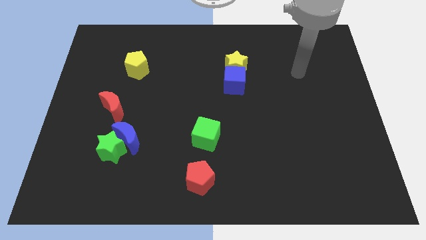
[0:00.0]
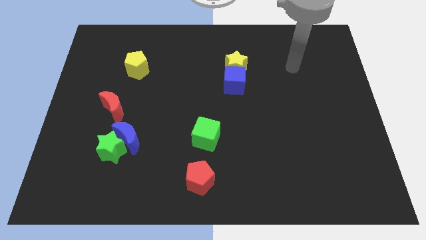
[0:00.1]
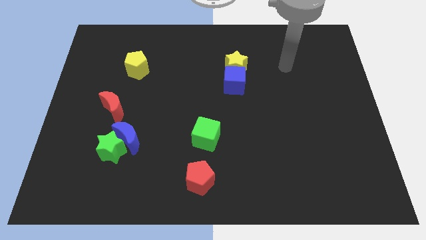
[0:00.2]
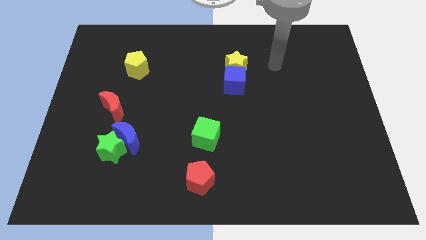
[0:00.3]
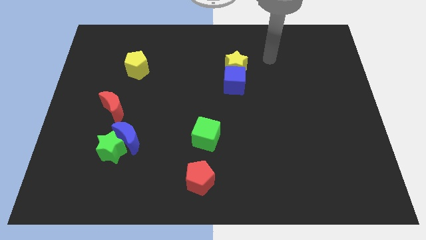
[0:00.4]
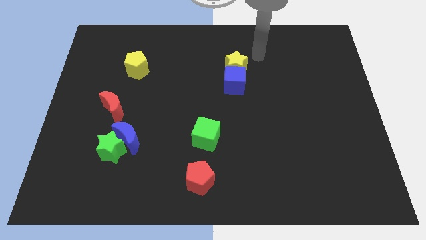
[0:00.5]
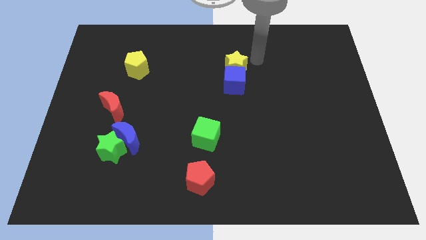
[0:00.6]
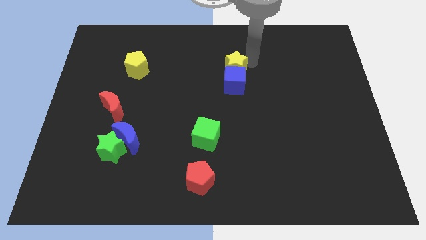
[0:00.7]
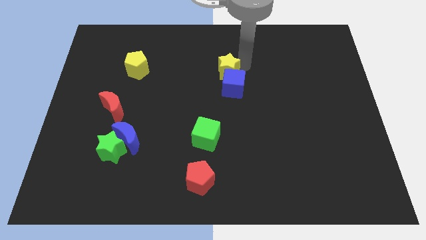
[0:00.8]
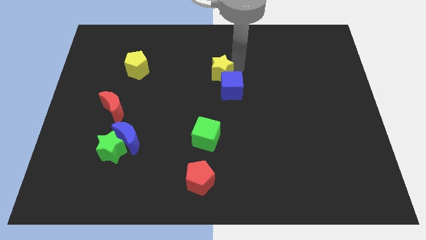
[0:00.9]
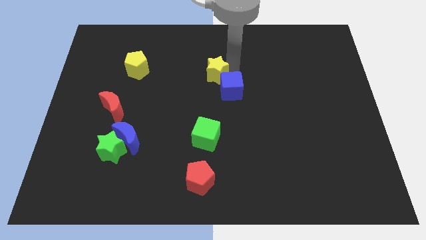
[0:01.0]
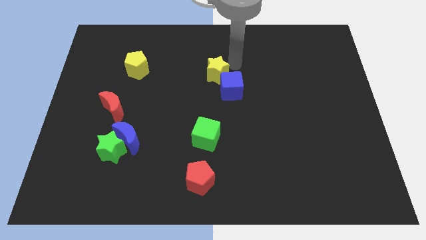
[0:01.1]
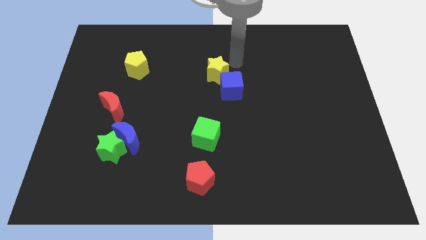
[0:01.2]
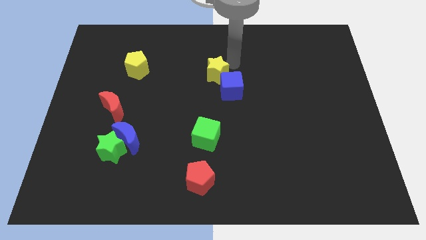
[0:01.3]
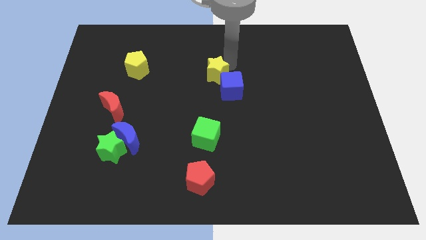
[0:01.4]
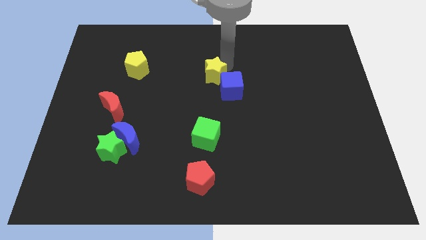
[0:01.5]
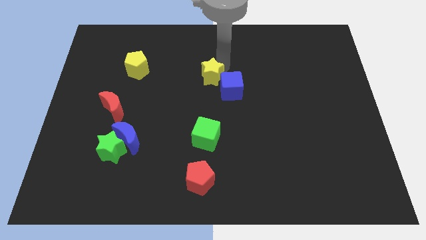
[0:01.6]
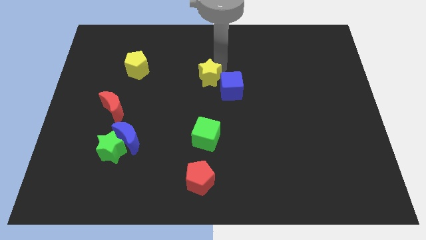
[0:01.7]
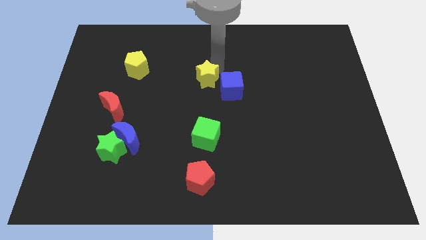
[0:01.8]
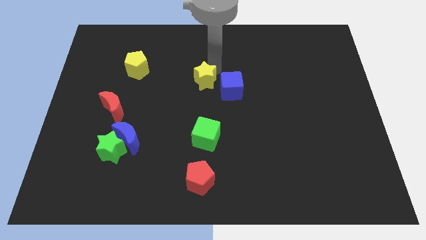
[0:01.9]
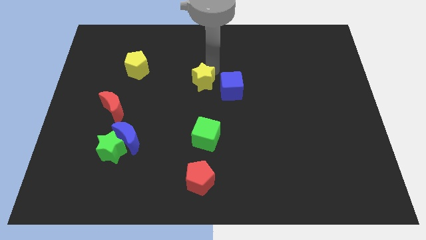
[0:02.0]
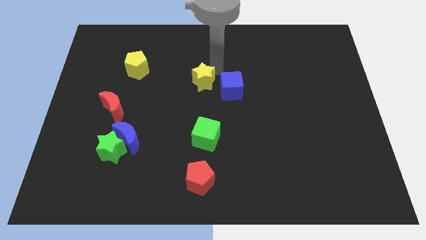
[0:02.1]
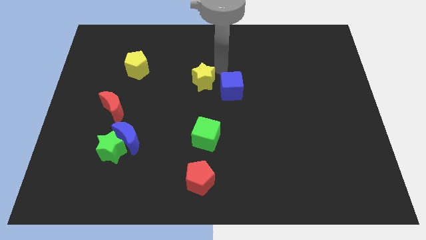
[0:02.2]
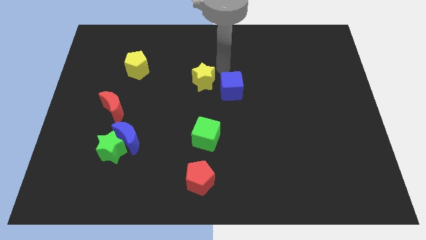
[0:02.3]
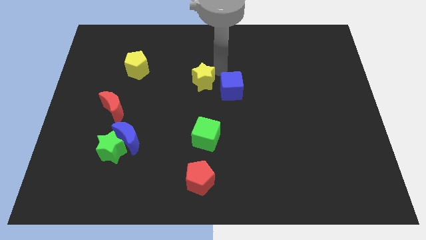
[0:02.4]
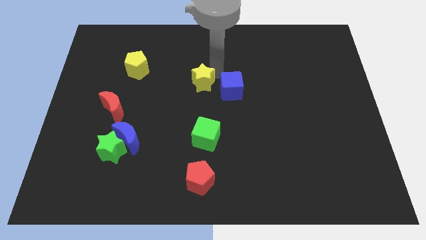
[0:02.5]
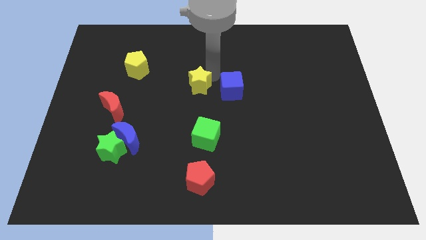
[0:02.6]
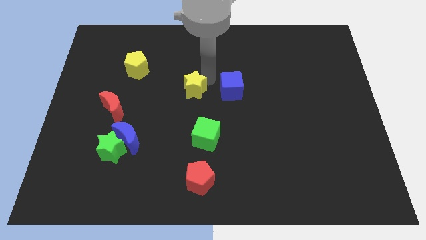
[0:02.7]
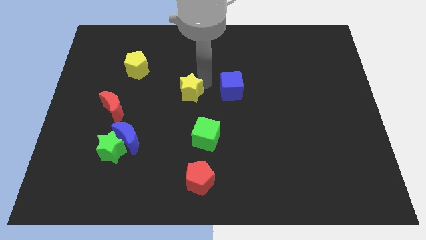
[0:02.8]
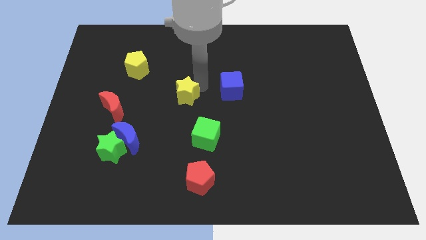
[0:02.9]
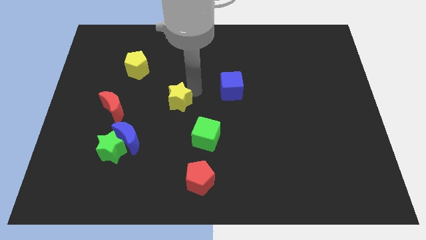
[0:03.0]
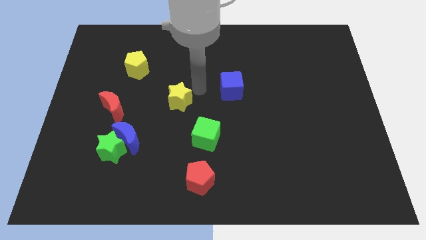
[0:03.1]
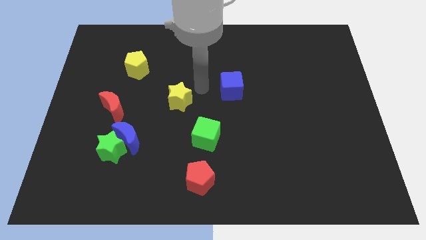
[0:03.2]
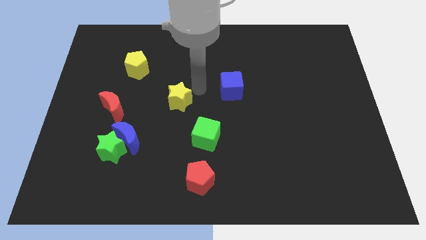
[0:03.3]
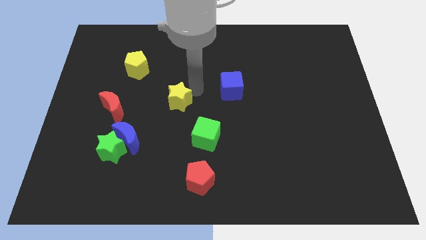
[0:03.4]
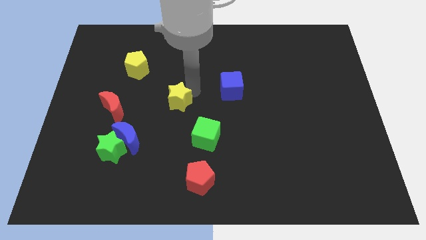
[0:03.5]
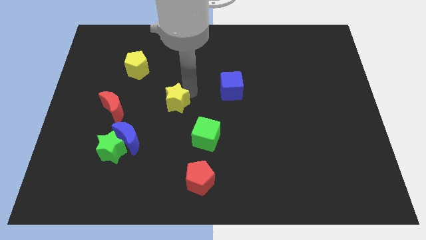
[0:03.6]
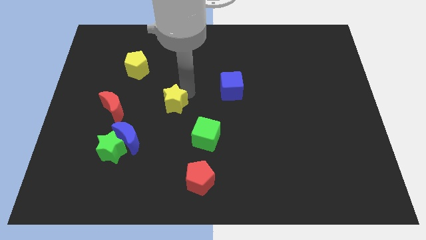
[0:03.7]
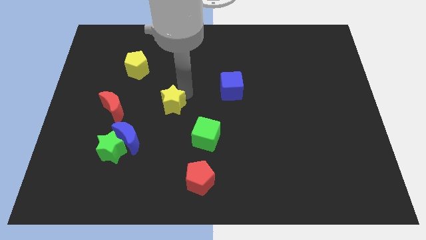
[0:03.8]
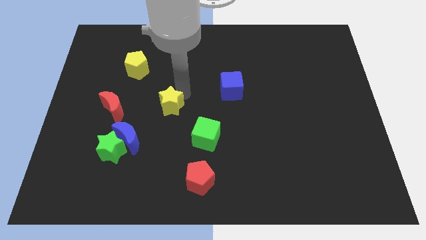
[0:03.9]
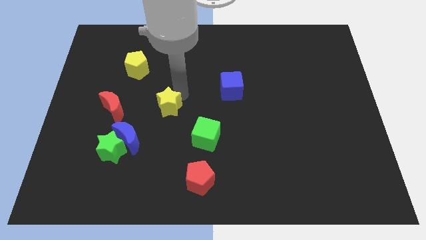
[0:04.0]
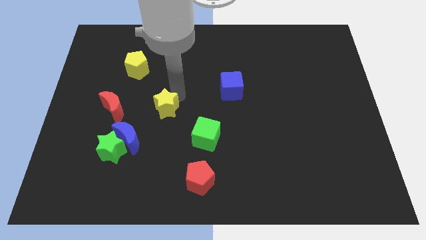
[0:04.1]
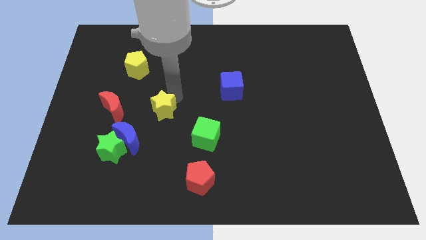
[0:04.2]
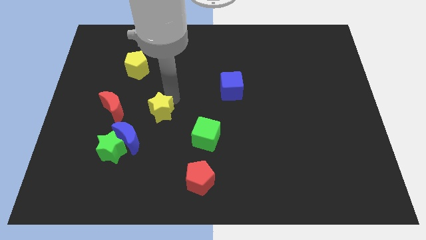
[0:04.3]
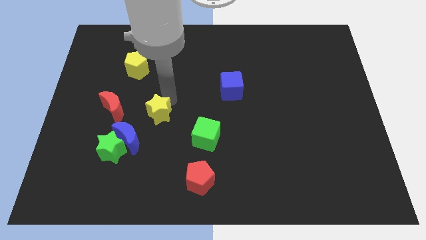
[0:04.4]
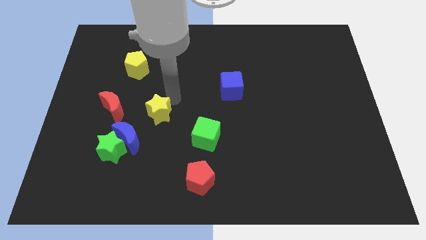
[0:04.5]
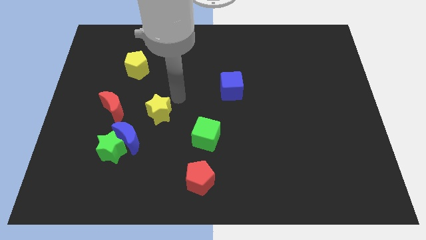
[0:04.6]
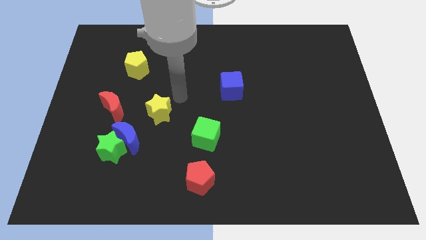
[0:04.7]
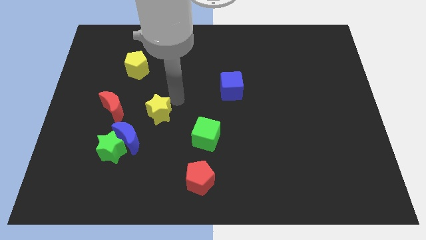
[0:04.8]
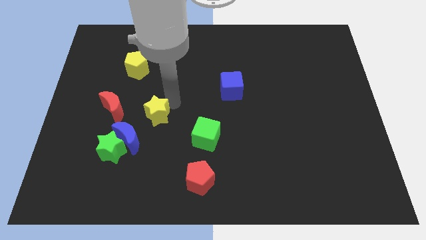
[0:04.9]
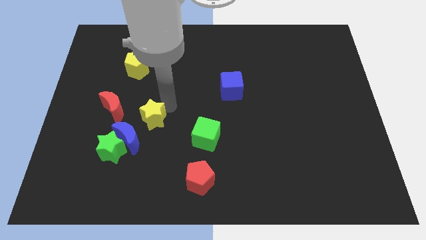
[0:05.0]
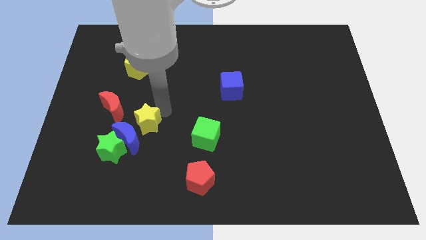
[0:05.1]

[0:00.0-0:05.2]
move the yellow star close to the blue moon

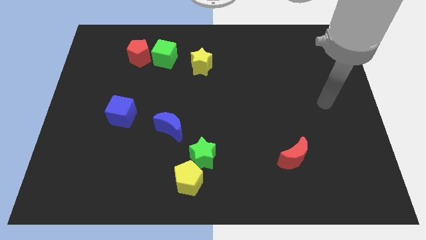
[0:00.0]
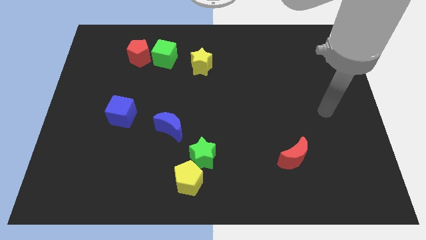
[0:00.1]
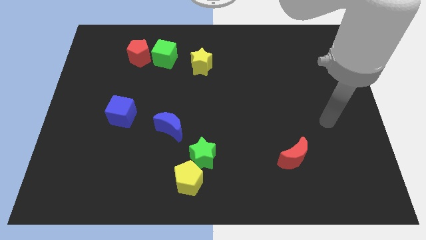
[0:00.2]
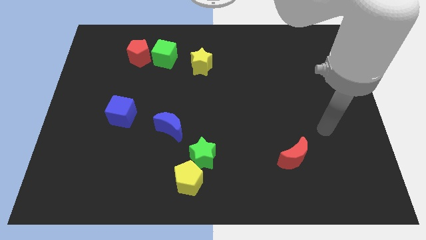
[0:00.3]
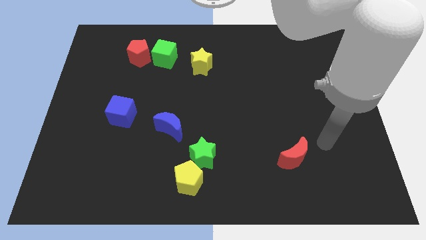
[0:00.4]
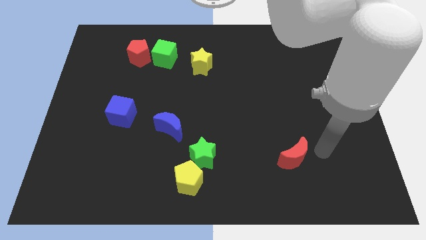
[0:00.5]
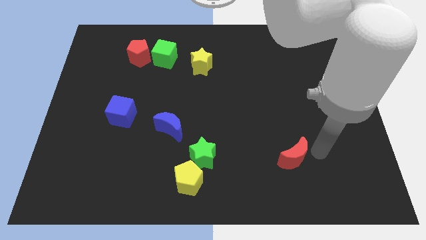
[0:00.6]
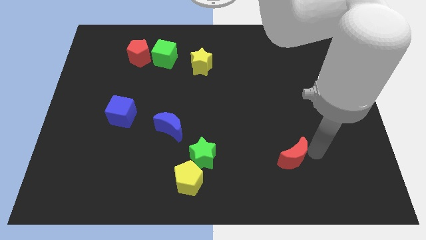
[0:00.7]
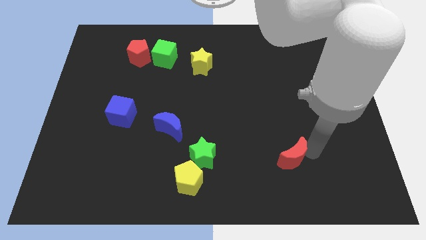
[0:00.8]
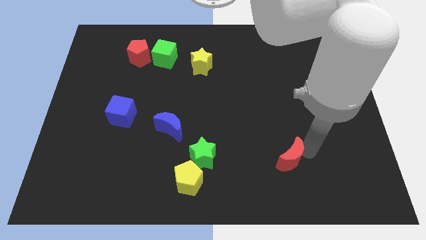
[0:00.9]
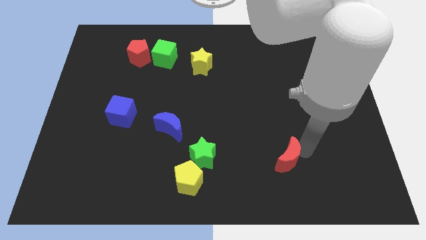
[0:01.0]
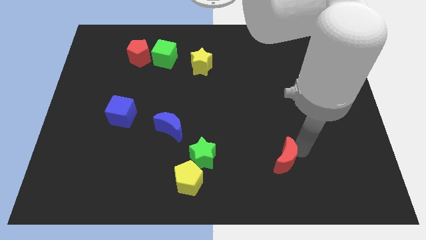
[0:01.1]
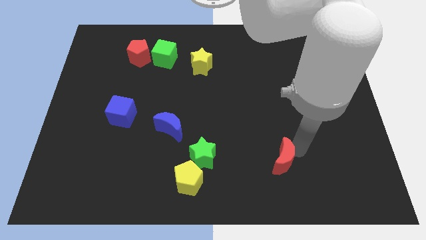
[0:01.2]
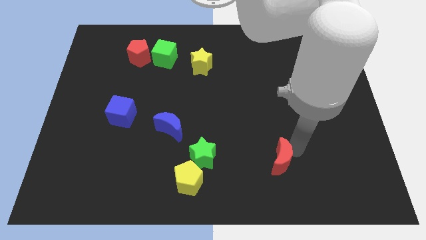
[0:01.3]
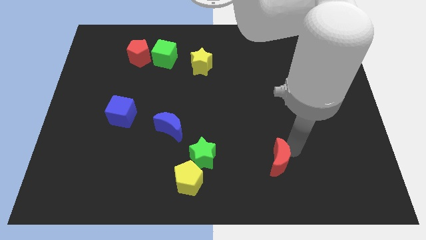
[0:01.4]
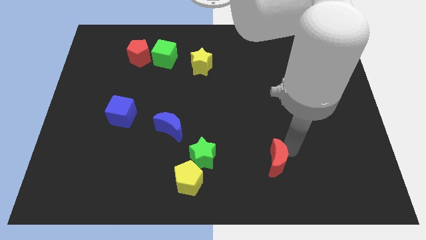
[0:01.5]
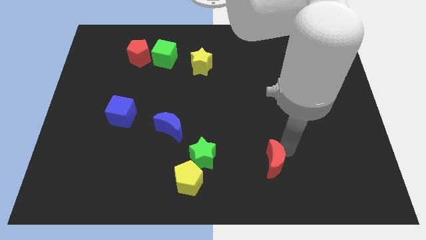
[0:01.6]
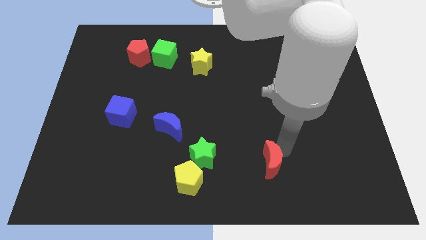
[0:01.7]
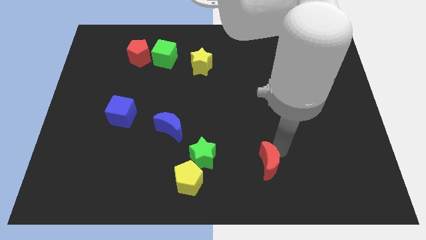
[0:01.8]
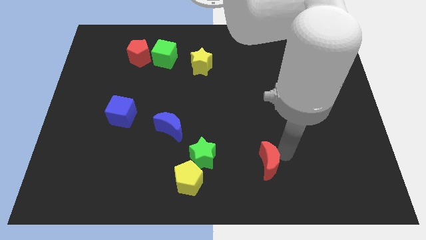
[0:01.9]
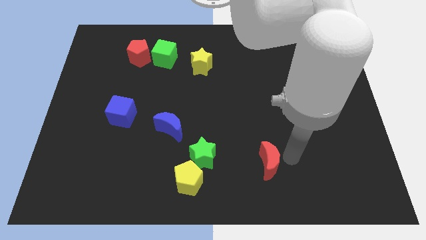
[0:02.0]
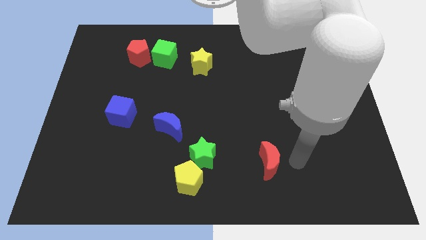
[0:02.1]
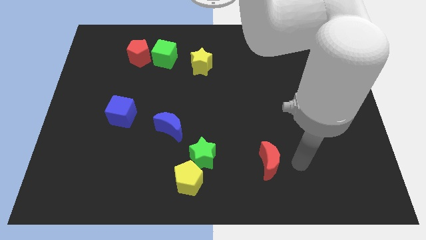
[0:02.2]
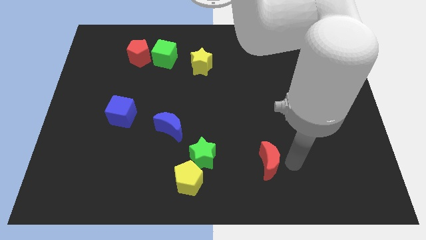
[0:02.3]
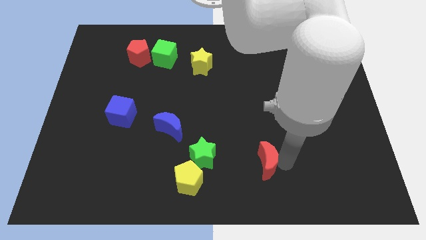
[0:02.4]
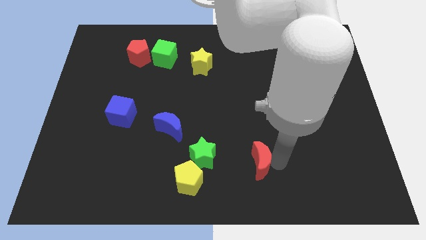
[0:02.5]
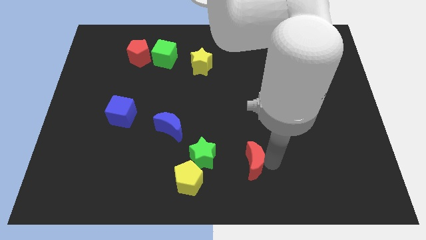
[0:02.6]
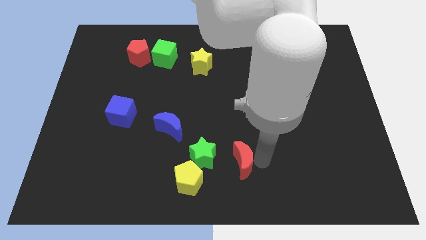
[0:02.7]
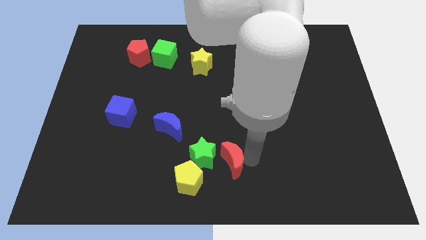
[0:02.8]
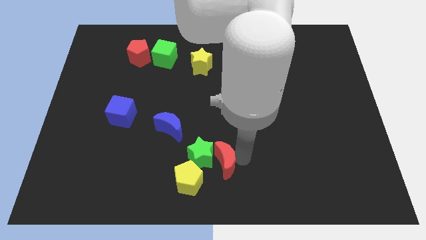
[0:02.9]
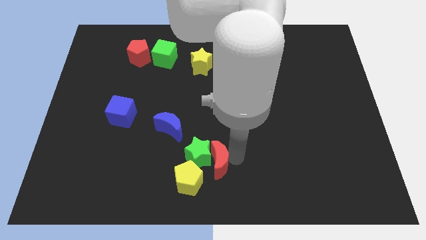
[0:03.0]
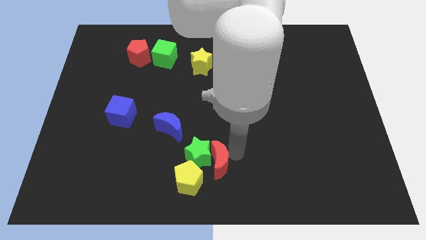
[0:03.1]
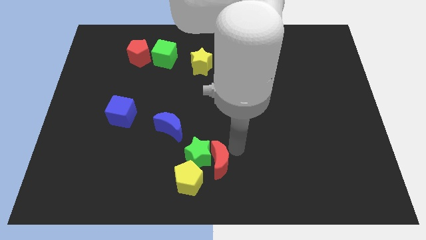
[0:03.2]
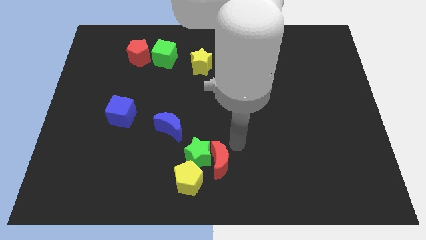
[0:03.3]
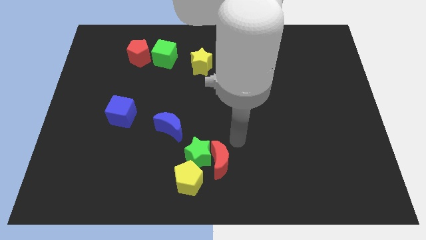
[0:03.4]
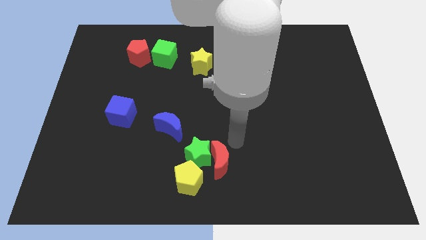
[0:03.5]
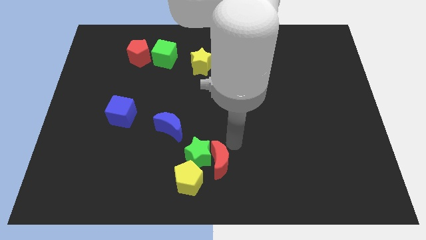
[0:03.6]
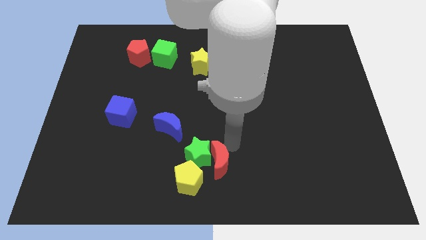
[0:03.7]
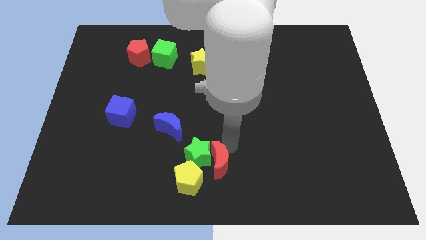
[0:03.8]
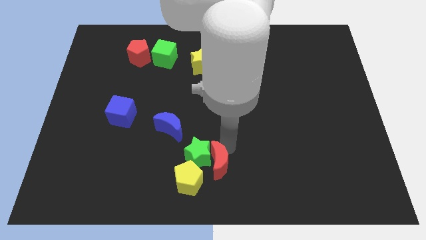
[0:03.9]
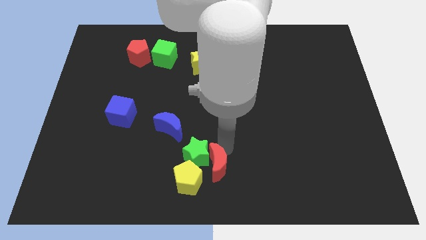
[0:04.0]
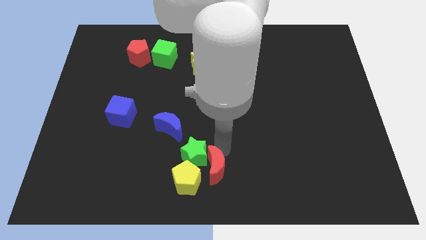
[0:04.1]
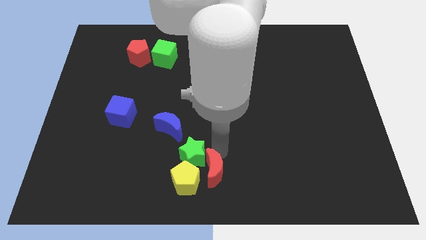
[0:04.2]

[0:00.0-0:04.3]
move the red moon towards the yellow pentagon
